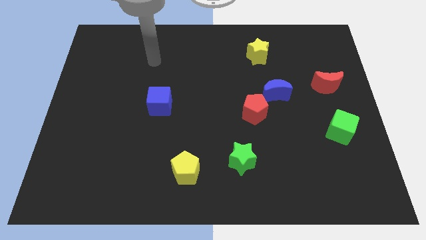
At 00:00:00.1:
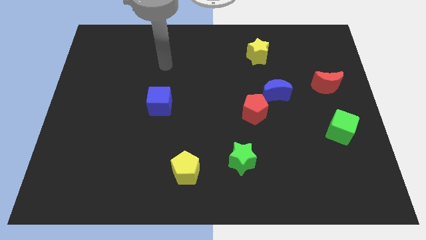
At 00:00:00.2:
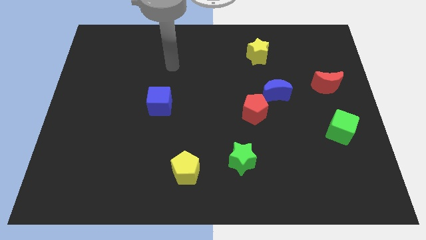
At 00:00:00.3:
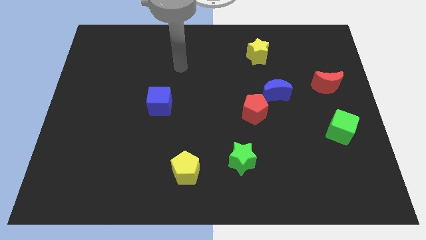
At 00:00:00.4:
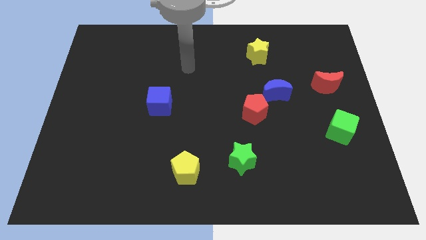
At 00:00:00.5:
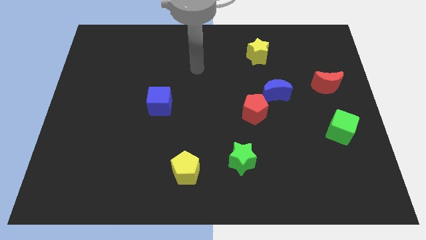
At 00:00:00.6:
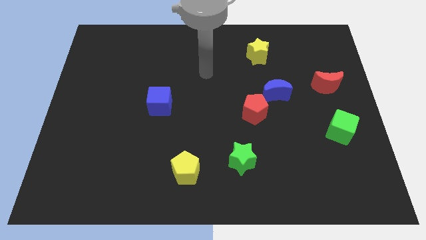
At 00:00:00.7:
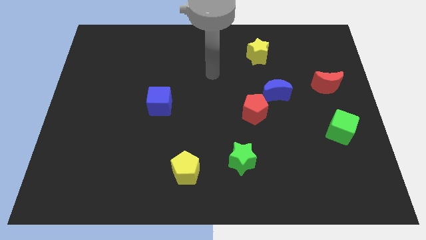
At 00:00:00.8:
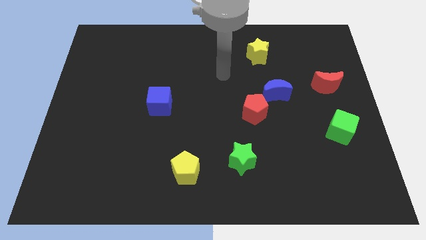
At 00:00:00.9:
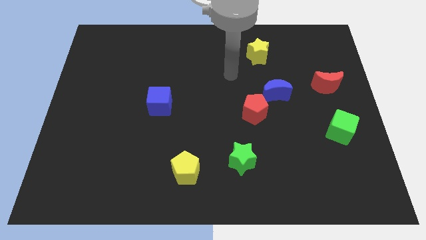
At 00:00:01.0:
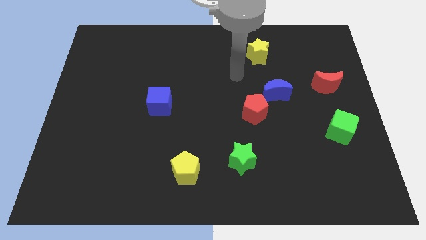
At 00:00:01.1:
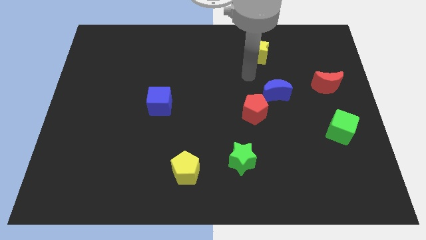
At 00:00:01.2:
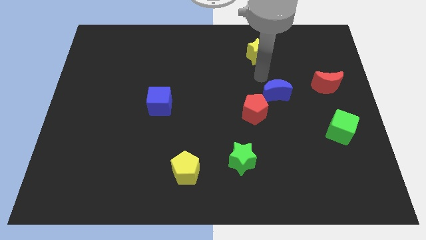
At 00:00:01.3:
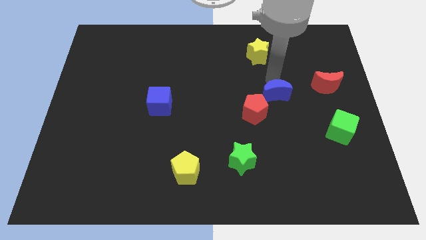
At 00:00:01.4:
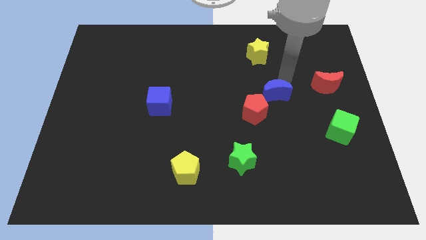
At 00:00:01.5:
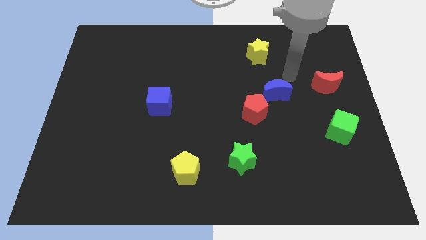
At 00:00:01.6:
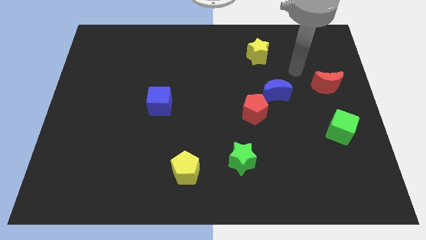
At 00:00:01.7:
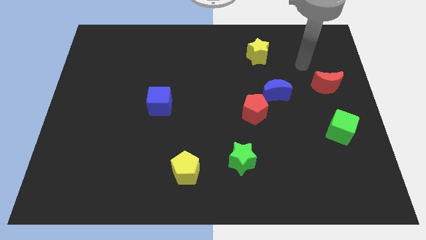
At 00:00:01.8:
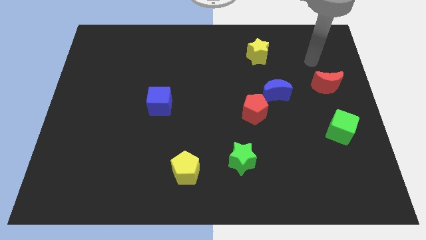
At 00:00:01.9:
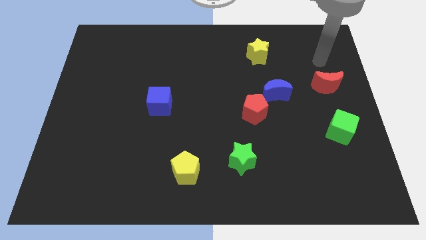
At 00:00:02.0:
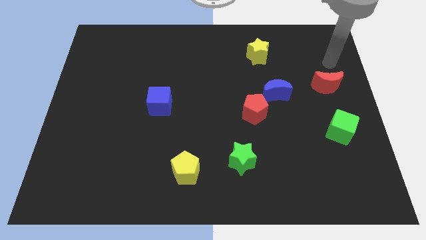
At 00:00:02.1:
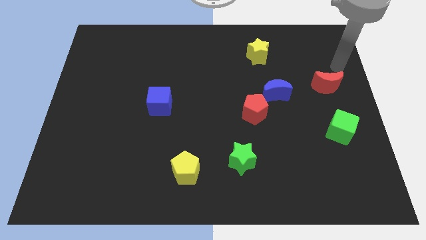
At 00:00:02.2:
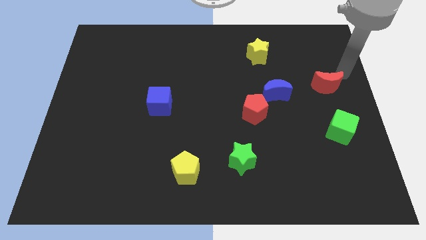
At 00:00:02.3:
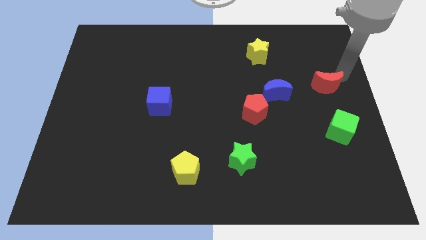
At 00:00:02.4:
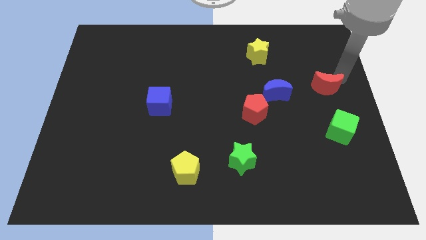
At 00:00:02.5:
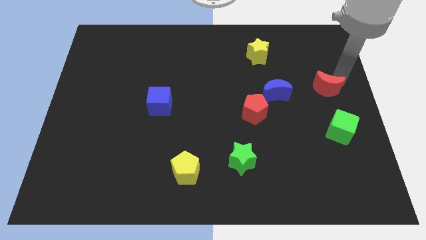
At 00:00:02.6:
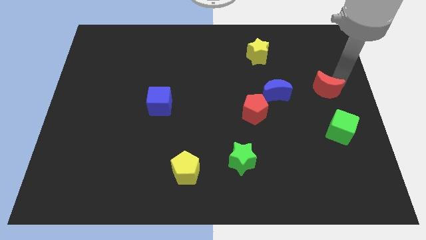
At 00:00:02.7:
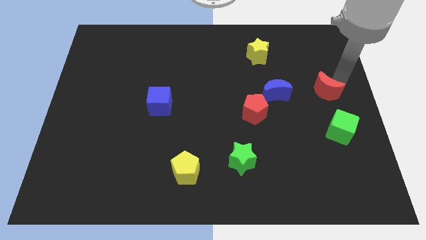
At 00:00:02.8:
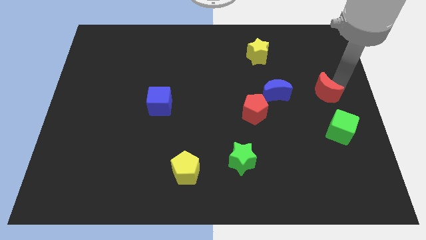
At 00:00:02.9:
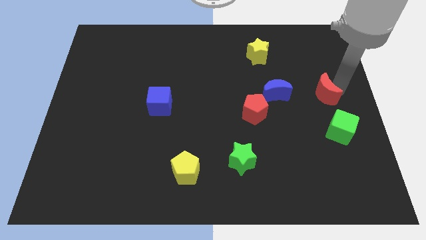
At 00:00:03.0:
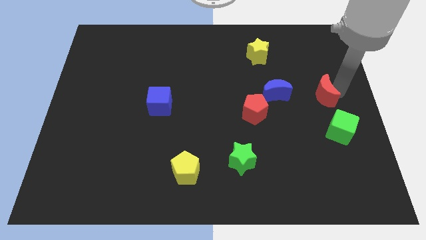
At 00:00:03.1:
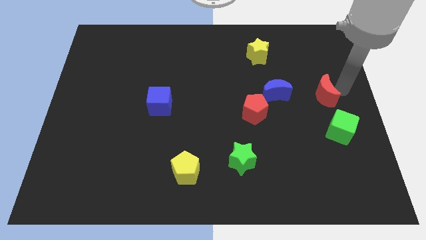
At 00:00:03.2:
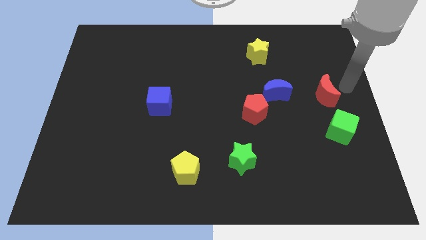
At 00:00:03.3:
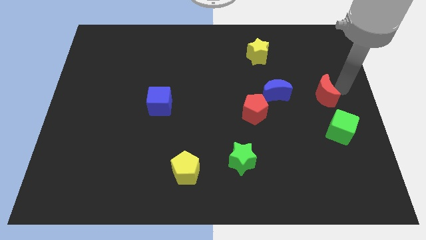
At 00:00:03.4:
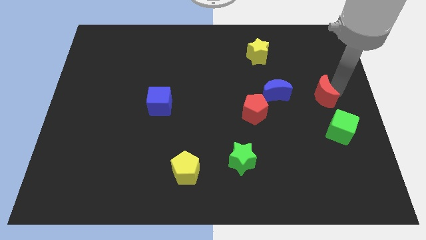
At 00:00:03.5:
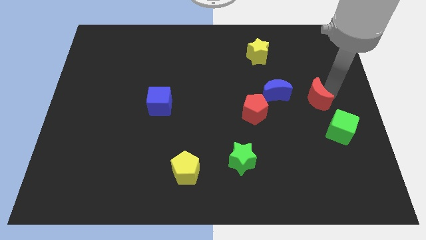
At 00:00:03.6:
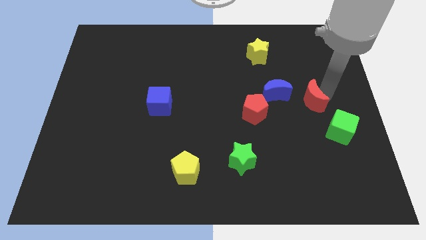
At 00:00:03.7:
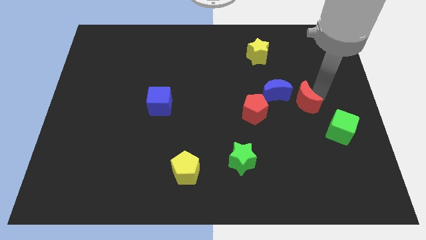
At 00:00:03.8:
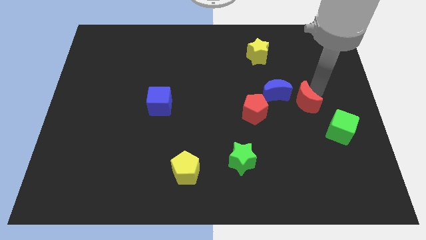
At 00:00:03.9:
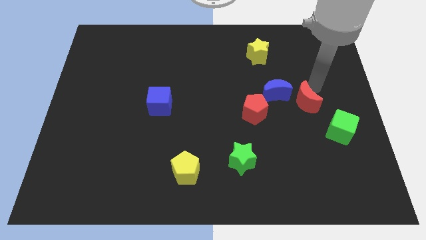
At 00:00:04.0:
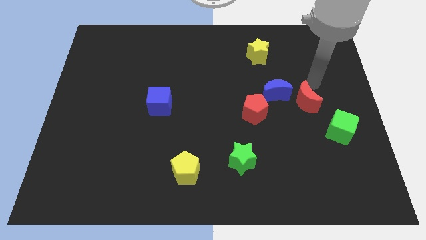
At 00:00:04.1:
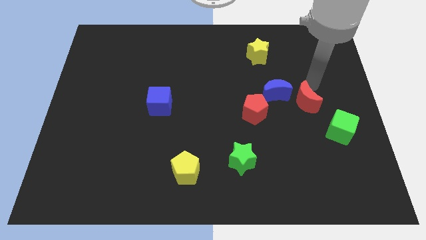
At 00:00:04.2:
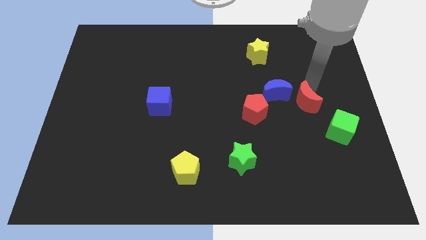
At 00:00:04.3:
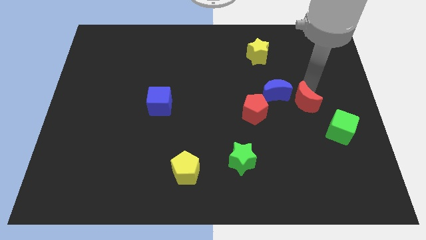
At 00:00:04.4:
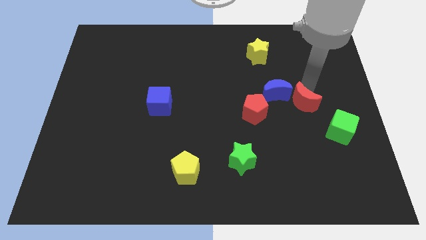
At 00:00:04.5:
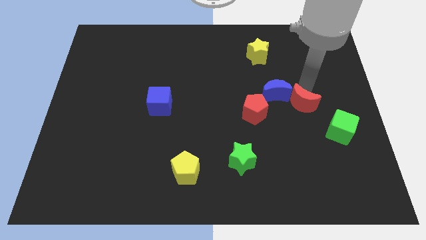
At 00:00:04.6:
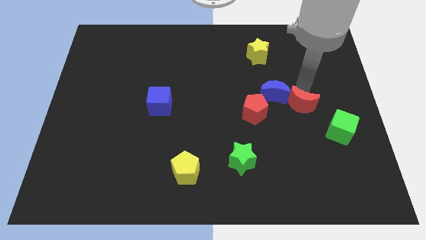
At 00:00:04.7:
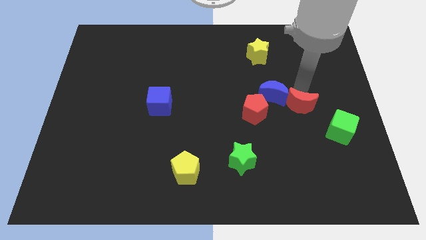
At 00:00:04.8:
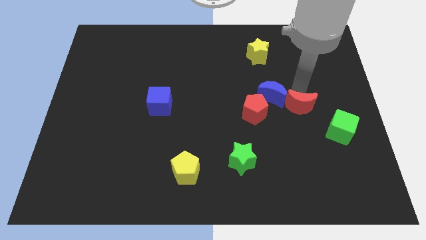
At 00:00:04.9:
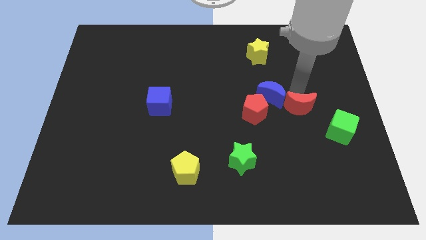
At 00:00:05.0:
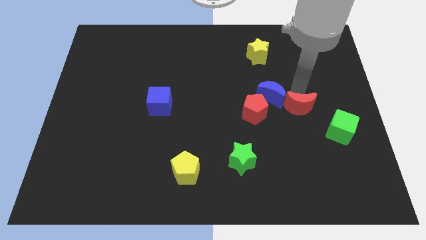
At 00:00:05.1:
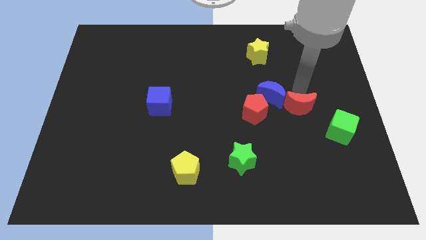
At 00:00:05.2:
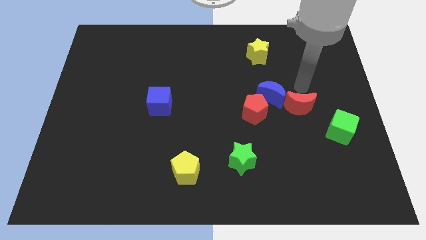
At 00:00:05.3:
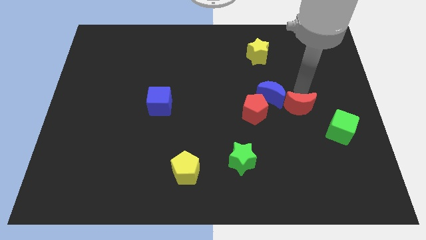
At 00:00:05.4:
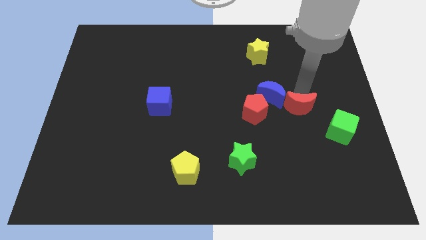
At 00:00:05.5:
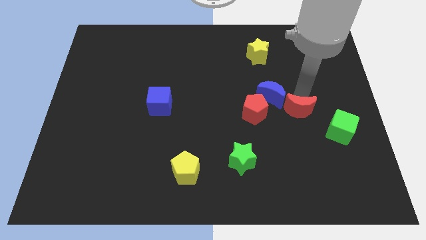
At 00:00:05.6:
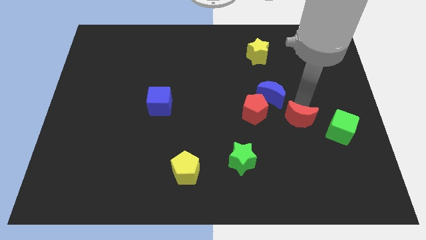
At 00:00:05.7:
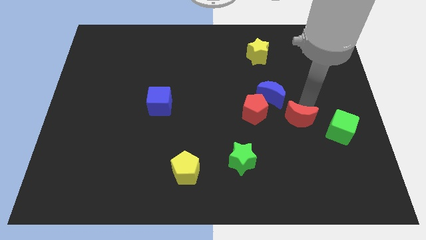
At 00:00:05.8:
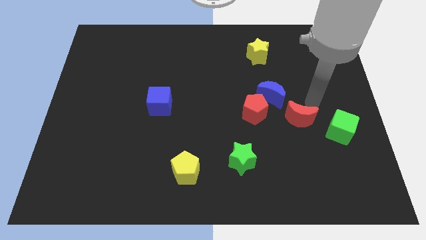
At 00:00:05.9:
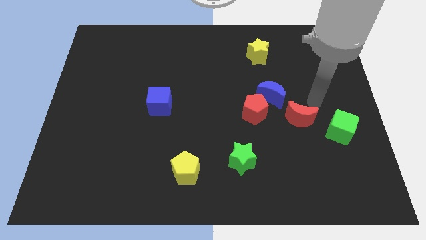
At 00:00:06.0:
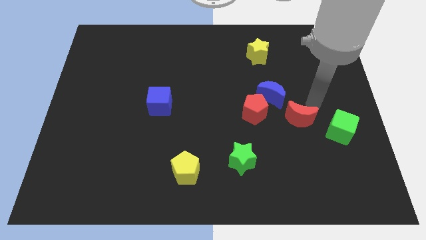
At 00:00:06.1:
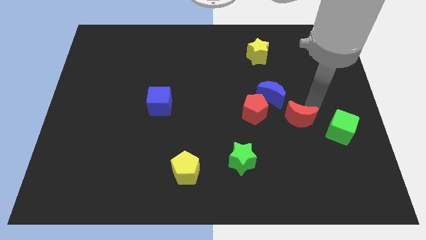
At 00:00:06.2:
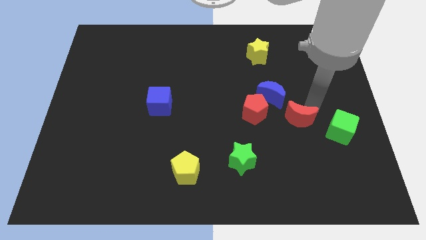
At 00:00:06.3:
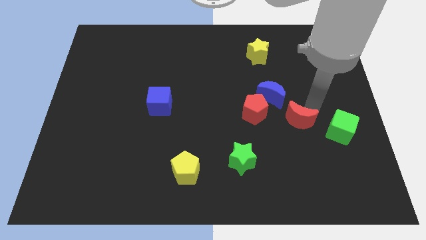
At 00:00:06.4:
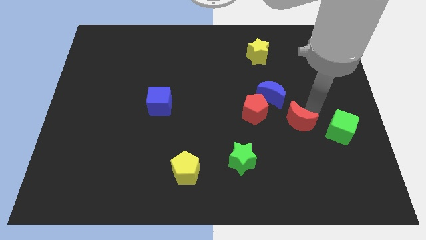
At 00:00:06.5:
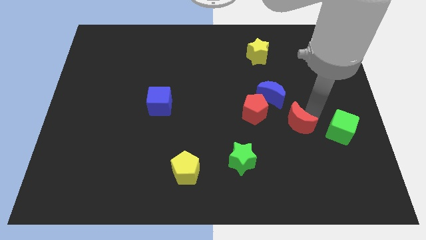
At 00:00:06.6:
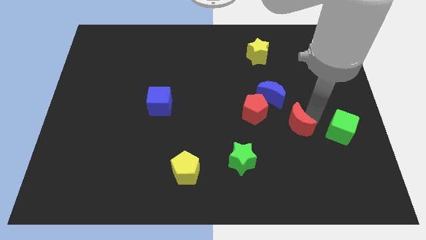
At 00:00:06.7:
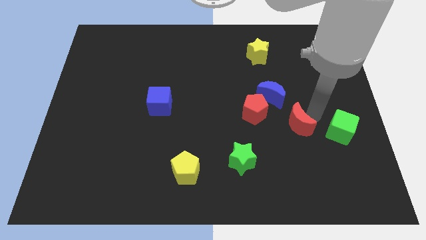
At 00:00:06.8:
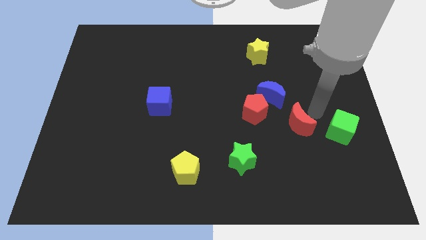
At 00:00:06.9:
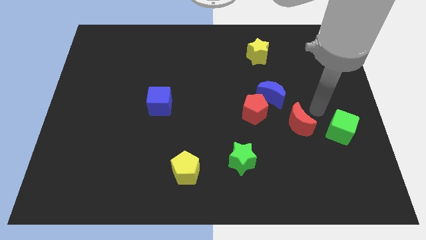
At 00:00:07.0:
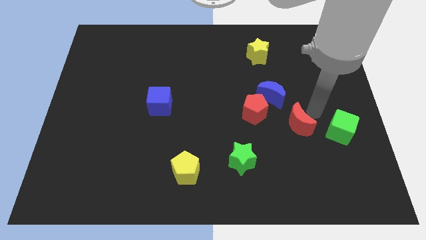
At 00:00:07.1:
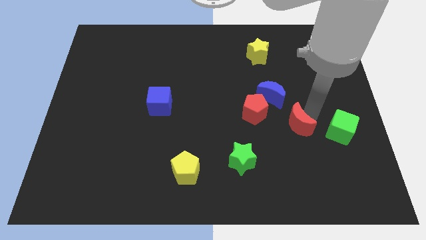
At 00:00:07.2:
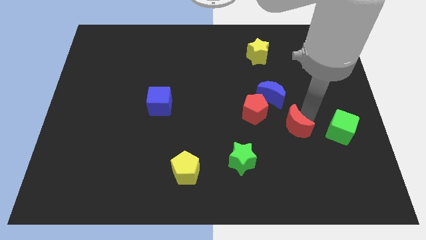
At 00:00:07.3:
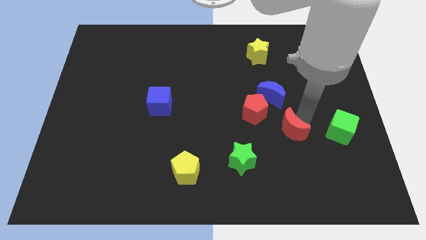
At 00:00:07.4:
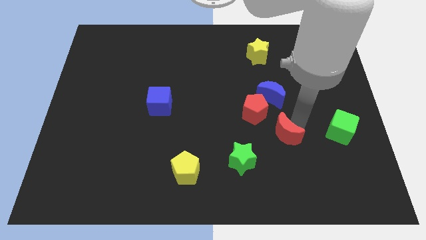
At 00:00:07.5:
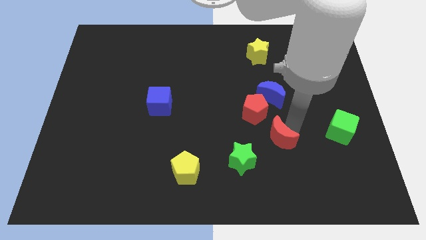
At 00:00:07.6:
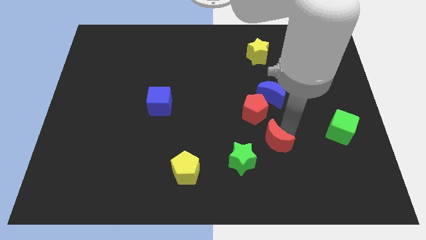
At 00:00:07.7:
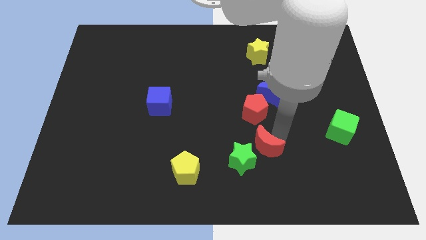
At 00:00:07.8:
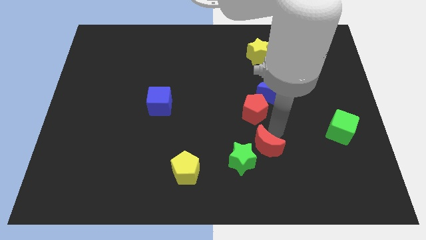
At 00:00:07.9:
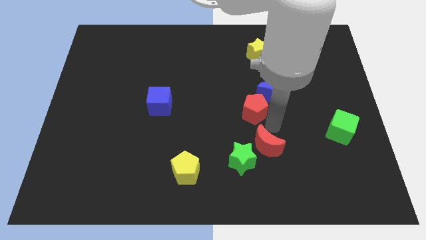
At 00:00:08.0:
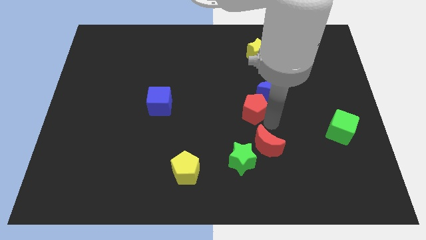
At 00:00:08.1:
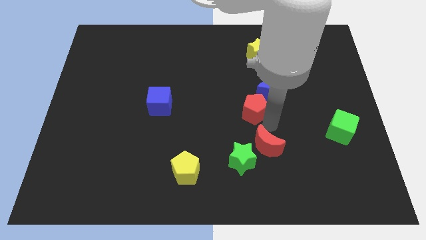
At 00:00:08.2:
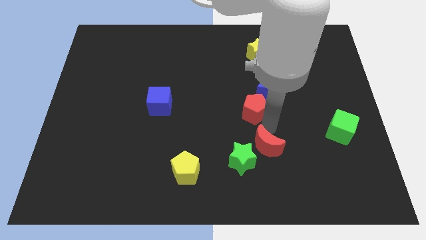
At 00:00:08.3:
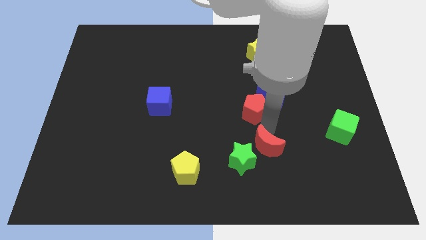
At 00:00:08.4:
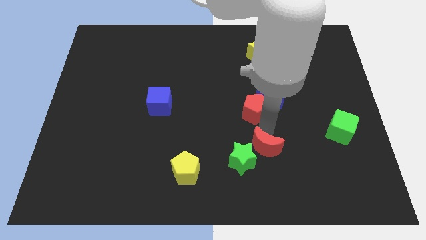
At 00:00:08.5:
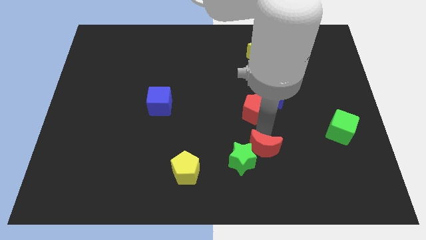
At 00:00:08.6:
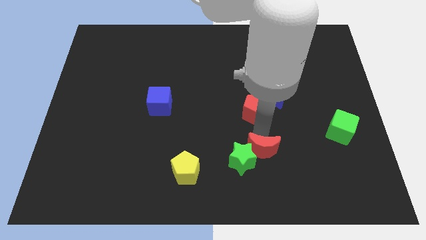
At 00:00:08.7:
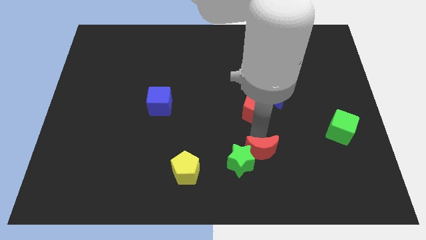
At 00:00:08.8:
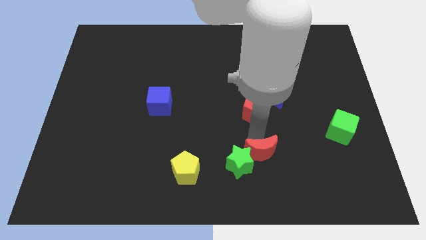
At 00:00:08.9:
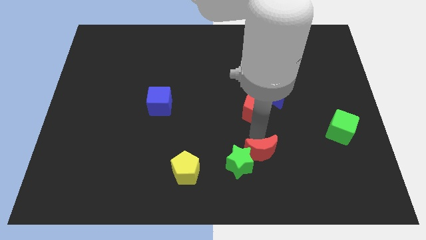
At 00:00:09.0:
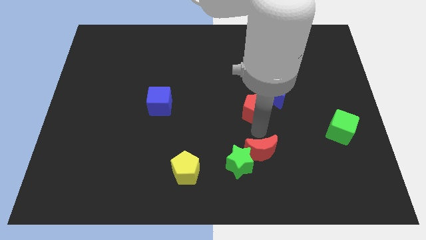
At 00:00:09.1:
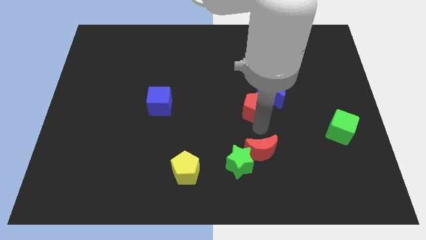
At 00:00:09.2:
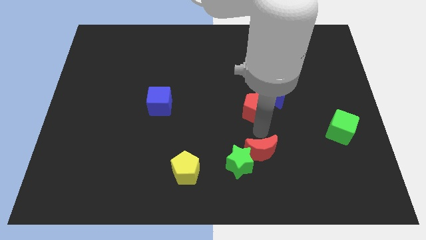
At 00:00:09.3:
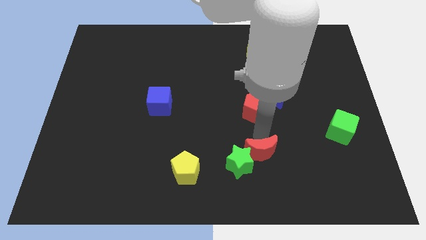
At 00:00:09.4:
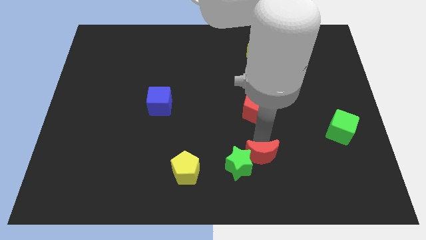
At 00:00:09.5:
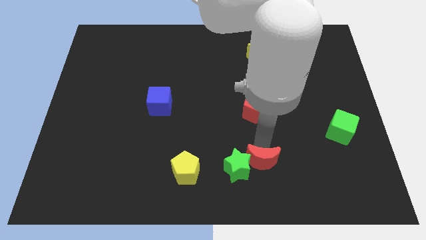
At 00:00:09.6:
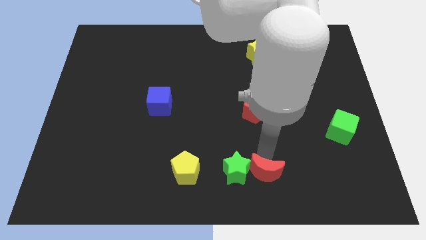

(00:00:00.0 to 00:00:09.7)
put the red moon to the bottom side
